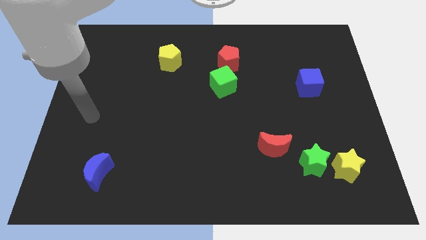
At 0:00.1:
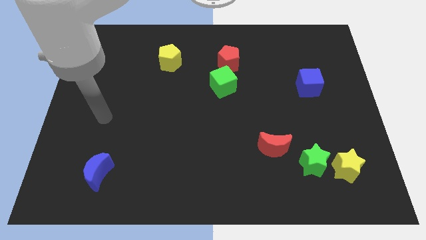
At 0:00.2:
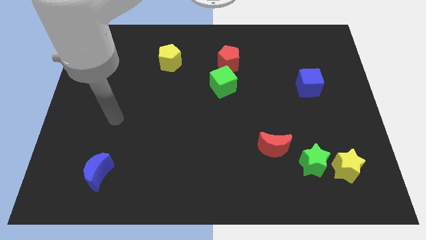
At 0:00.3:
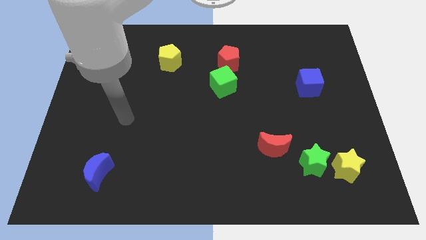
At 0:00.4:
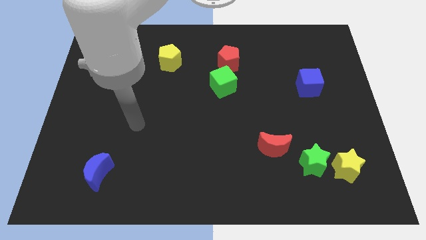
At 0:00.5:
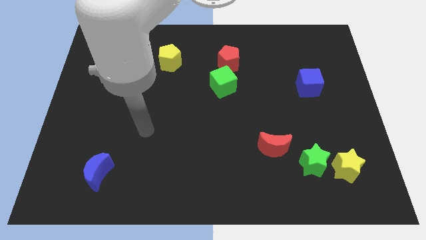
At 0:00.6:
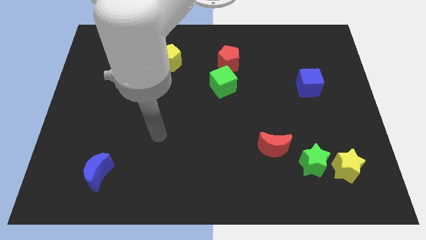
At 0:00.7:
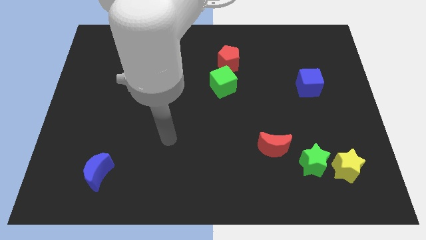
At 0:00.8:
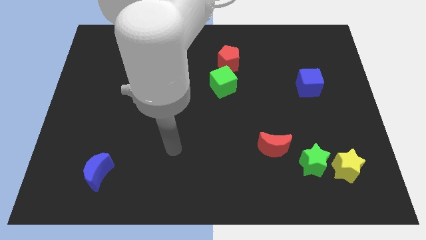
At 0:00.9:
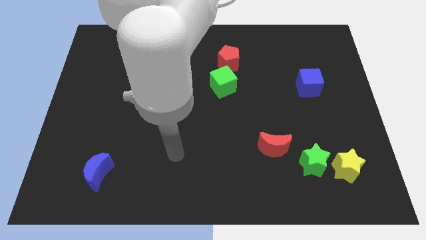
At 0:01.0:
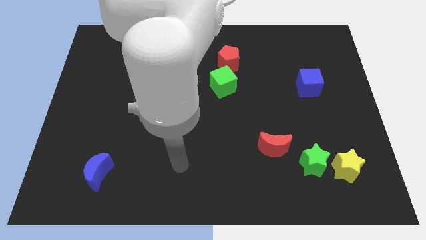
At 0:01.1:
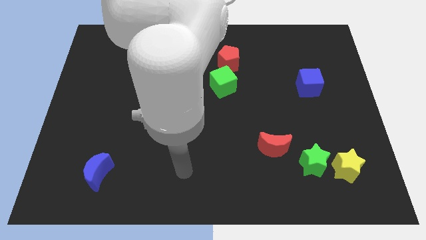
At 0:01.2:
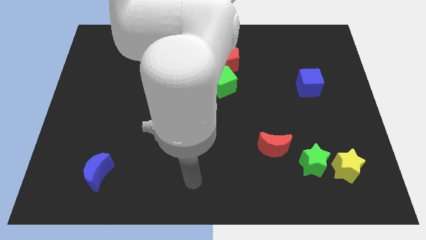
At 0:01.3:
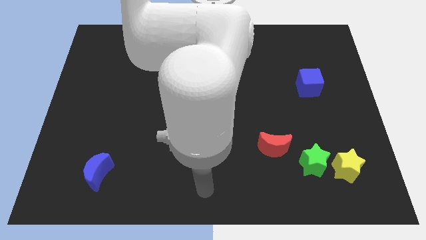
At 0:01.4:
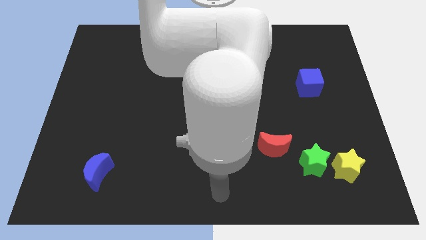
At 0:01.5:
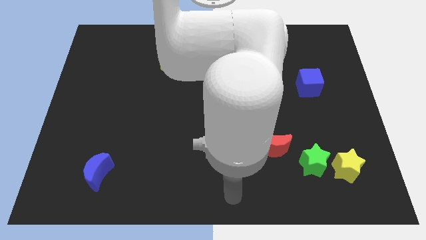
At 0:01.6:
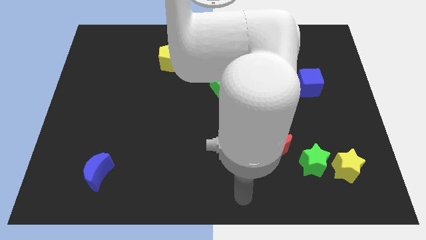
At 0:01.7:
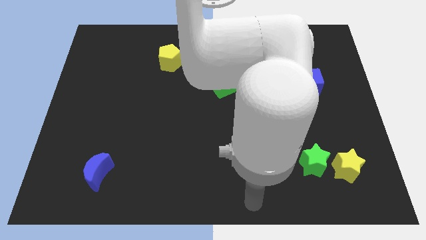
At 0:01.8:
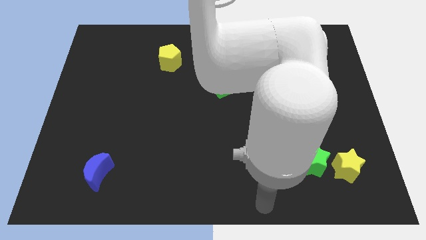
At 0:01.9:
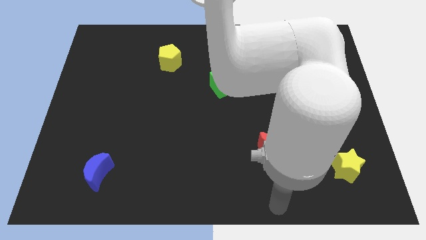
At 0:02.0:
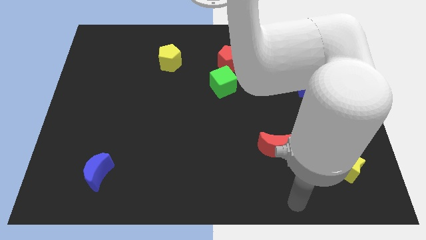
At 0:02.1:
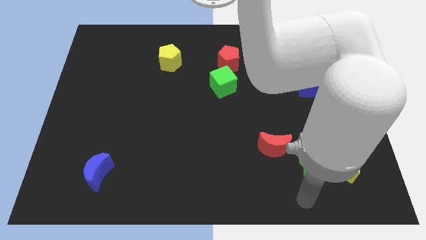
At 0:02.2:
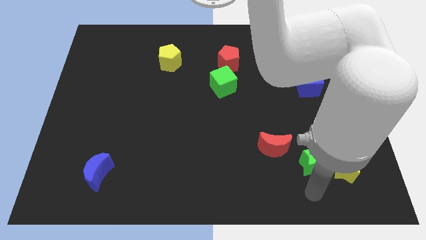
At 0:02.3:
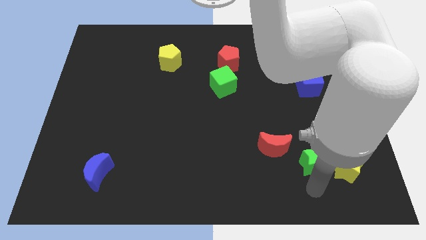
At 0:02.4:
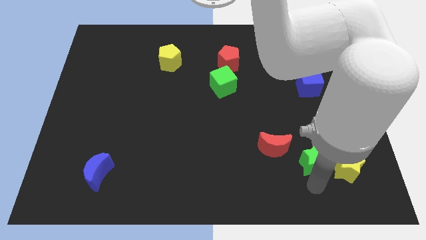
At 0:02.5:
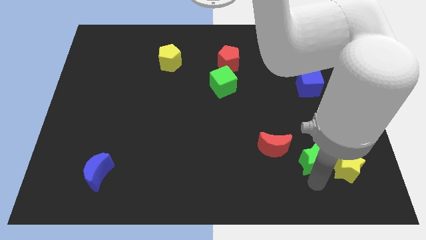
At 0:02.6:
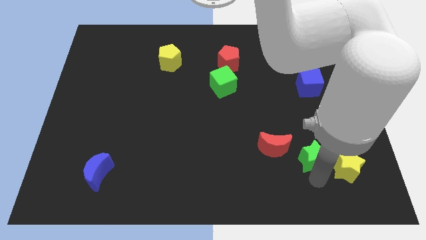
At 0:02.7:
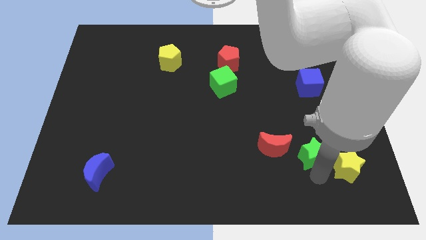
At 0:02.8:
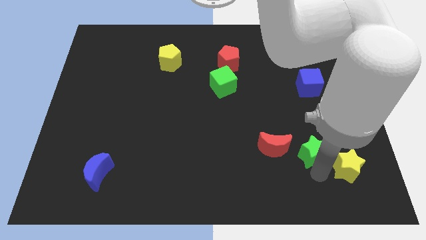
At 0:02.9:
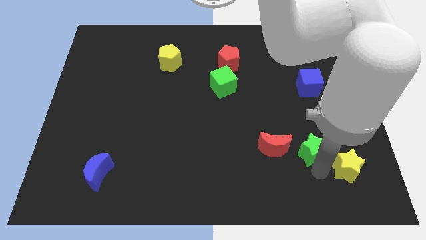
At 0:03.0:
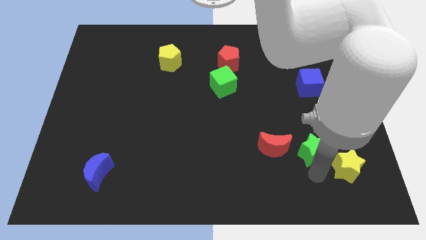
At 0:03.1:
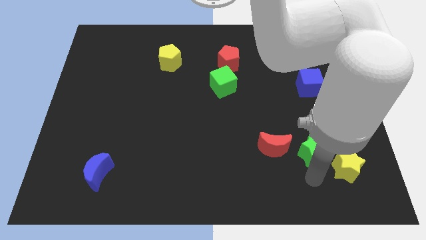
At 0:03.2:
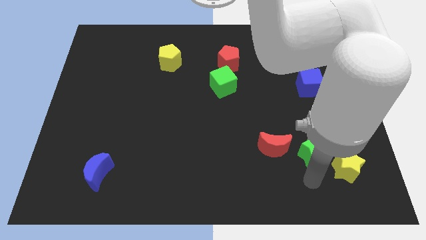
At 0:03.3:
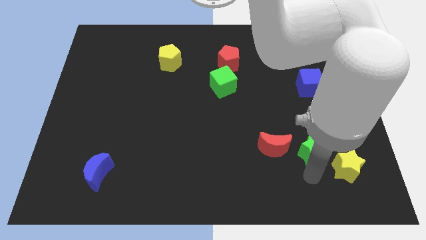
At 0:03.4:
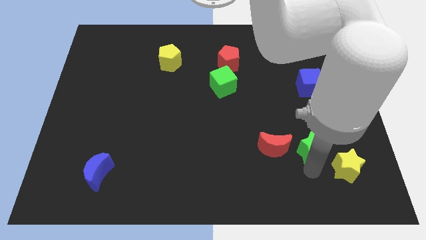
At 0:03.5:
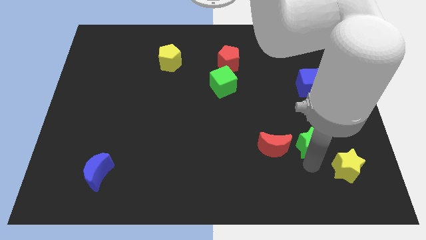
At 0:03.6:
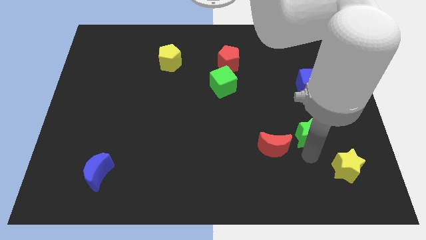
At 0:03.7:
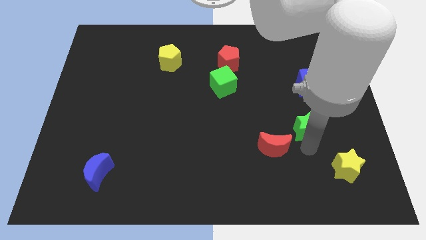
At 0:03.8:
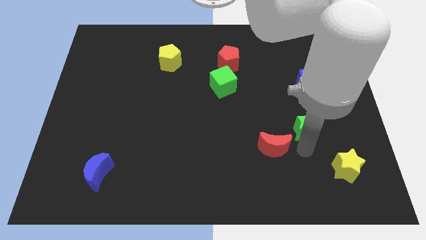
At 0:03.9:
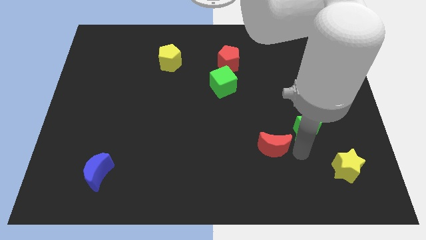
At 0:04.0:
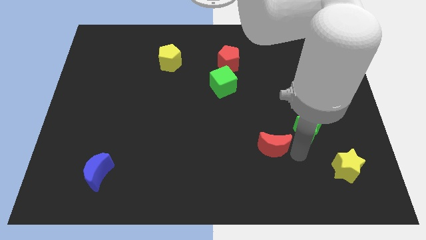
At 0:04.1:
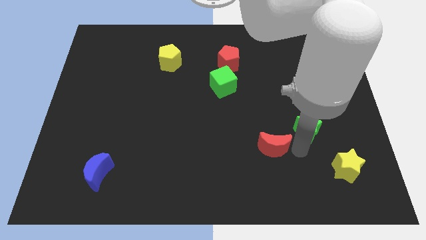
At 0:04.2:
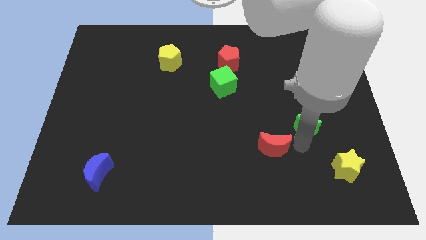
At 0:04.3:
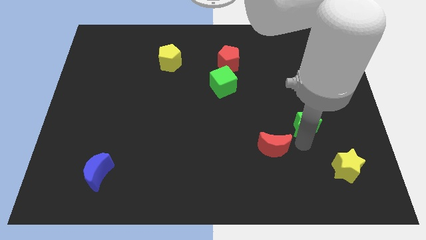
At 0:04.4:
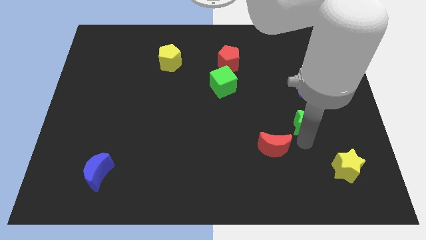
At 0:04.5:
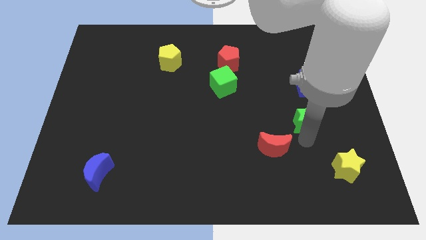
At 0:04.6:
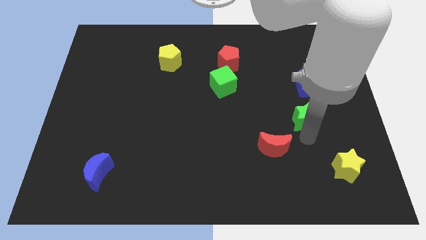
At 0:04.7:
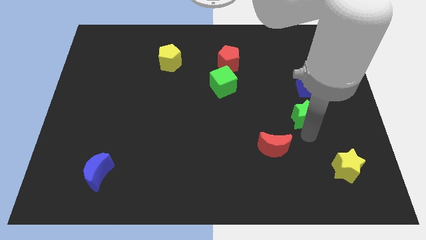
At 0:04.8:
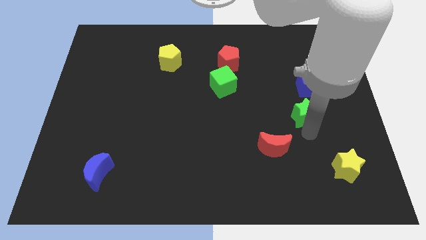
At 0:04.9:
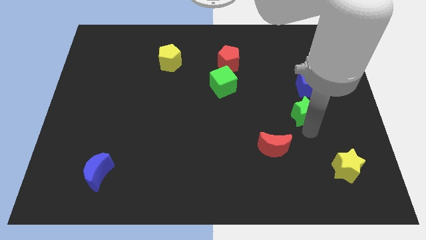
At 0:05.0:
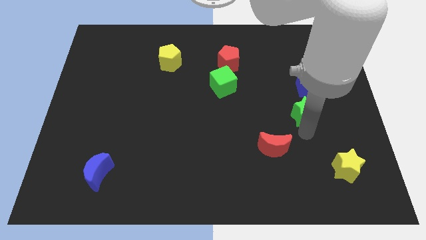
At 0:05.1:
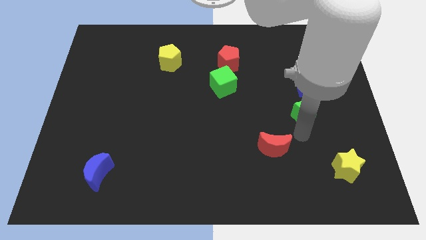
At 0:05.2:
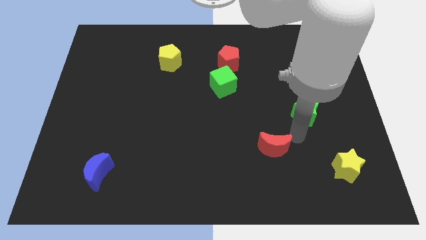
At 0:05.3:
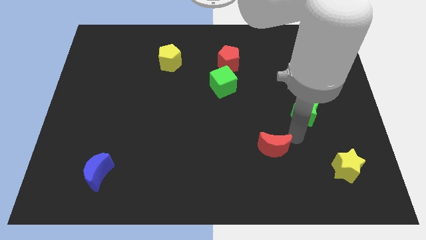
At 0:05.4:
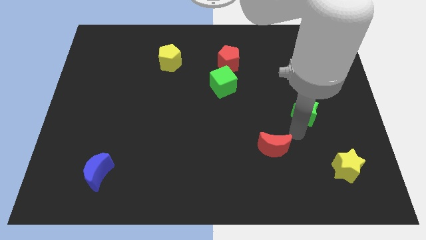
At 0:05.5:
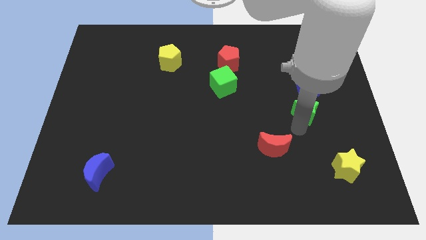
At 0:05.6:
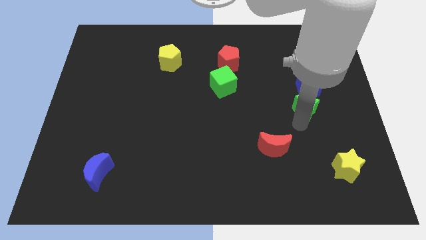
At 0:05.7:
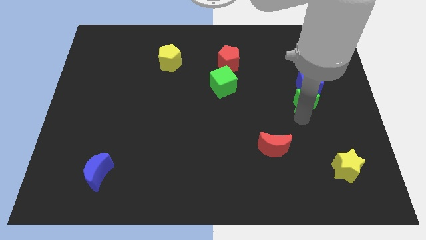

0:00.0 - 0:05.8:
put the green star to the blue cube

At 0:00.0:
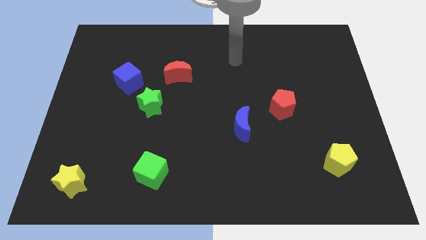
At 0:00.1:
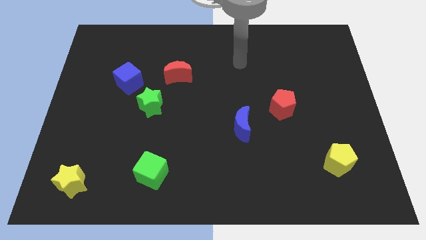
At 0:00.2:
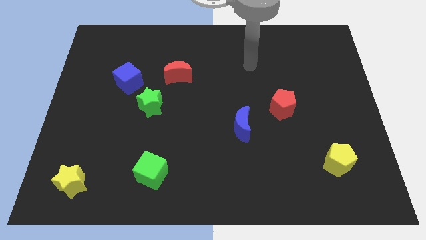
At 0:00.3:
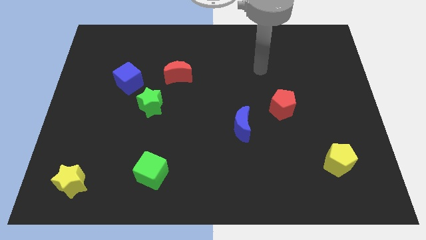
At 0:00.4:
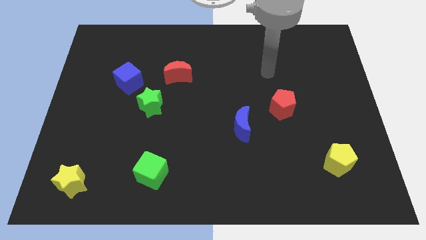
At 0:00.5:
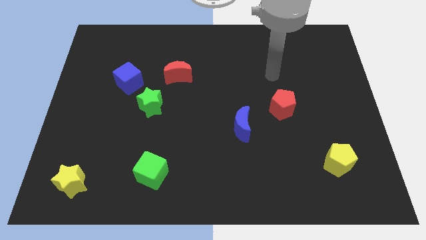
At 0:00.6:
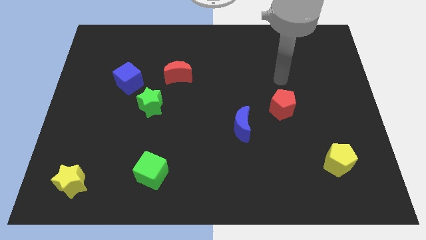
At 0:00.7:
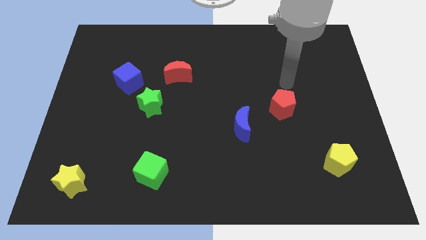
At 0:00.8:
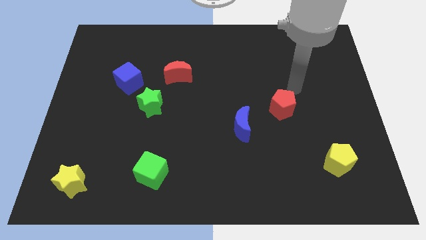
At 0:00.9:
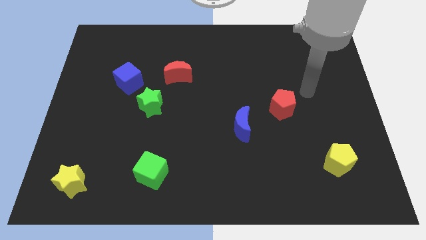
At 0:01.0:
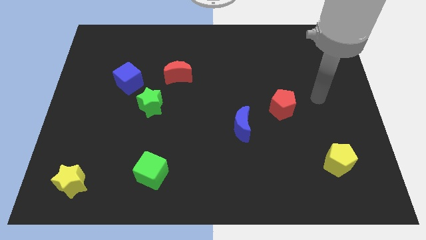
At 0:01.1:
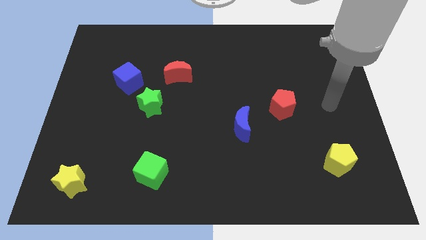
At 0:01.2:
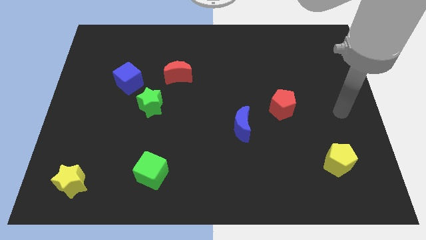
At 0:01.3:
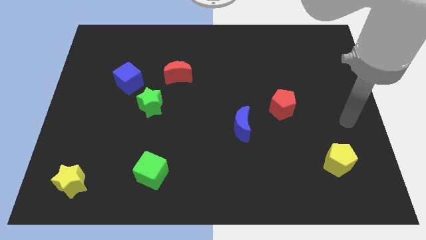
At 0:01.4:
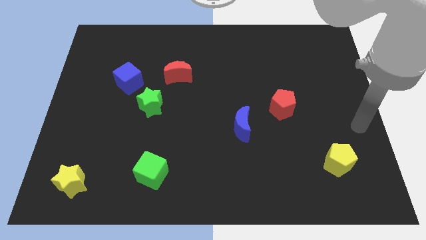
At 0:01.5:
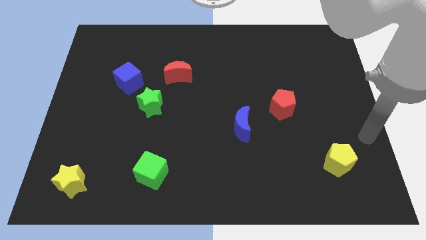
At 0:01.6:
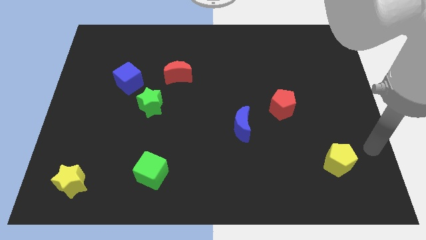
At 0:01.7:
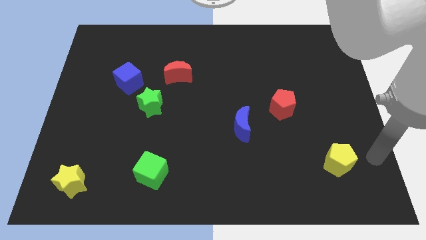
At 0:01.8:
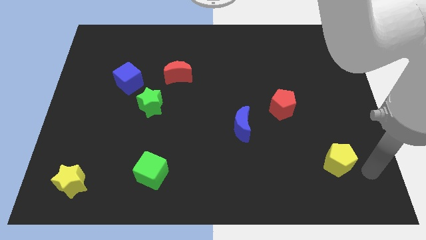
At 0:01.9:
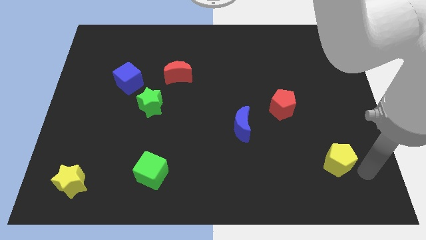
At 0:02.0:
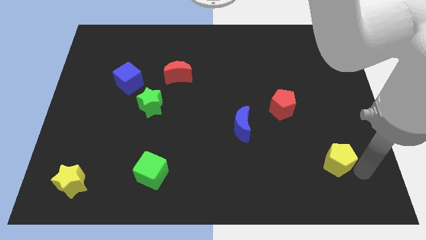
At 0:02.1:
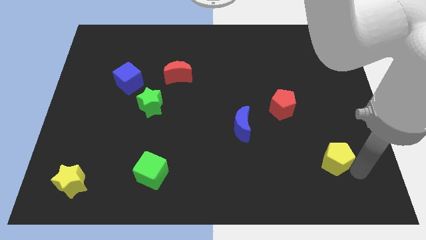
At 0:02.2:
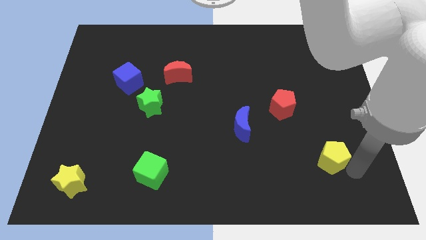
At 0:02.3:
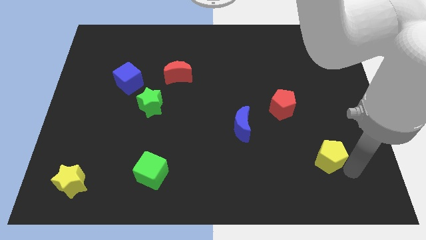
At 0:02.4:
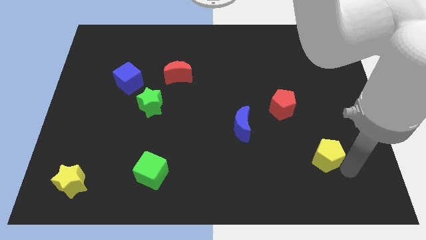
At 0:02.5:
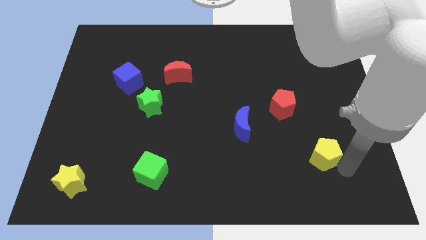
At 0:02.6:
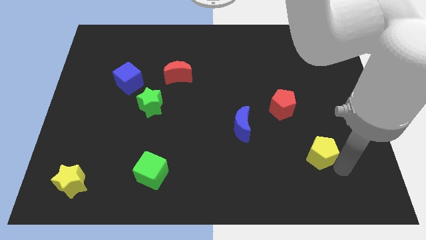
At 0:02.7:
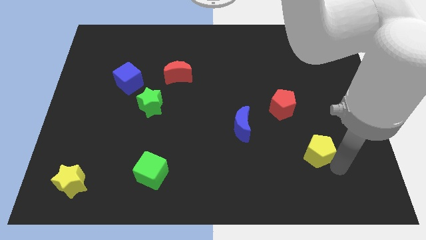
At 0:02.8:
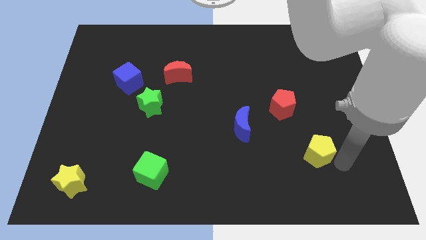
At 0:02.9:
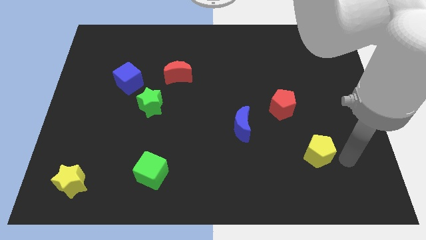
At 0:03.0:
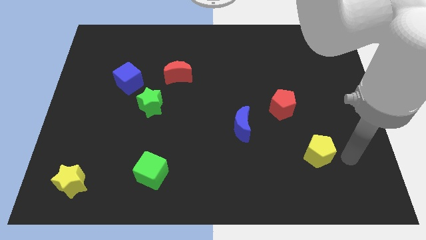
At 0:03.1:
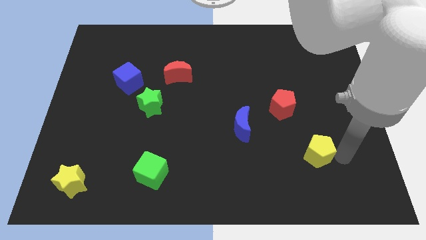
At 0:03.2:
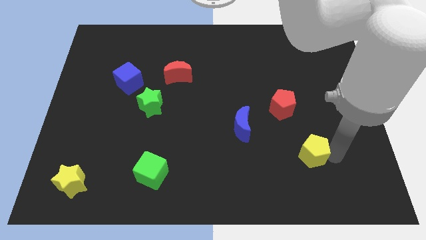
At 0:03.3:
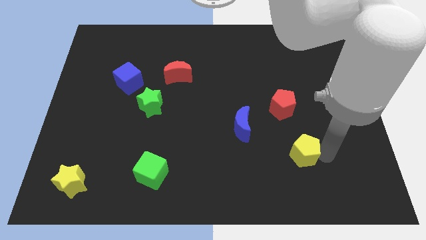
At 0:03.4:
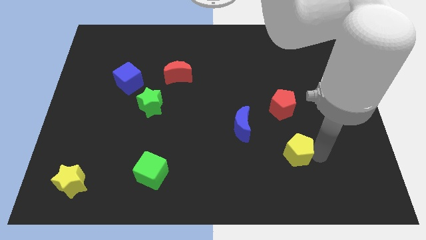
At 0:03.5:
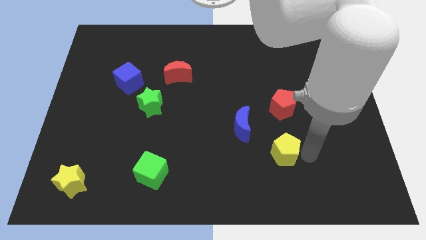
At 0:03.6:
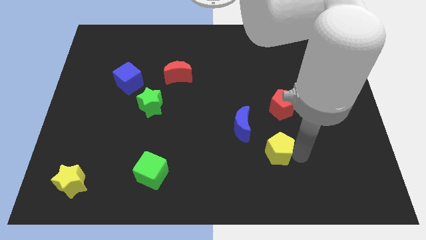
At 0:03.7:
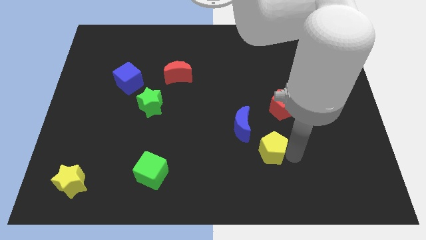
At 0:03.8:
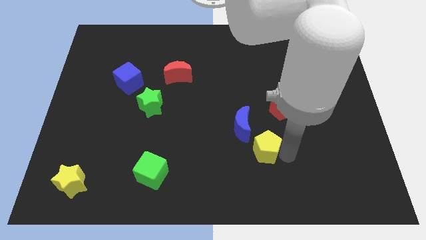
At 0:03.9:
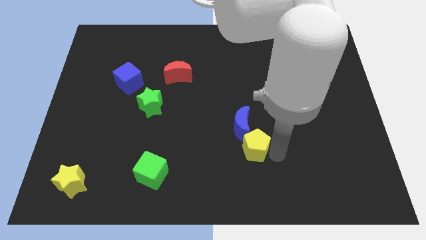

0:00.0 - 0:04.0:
move the yellow pentagon next to the blue moon
